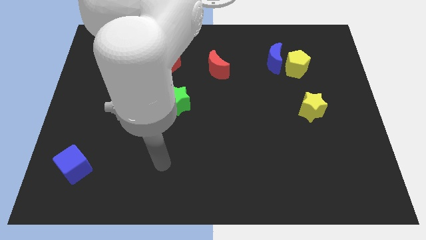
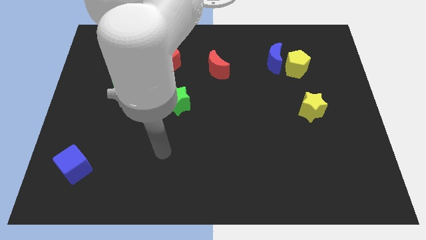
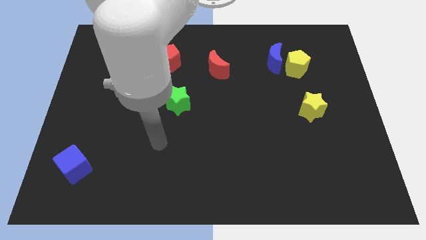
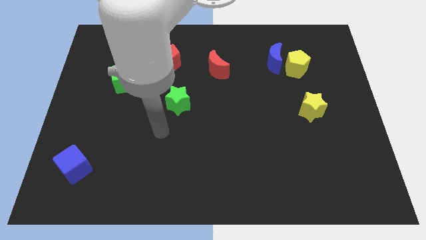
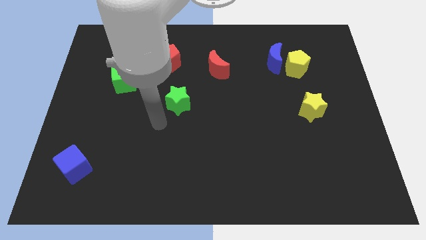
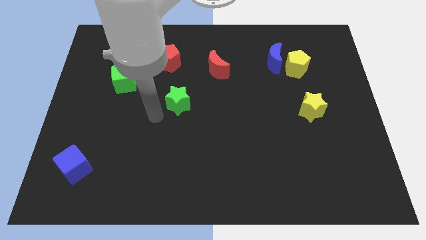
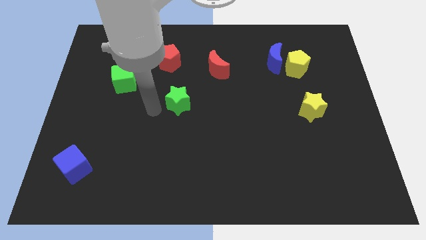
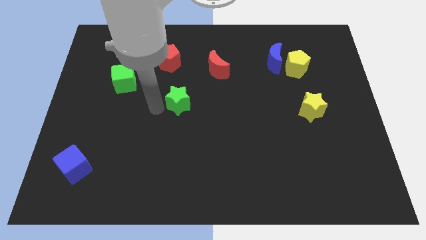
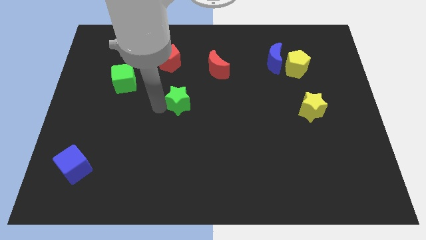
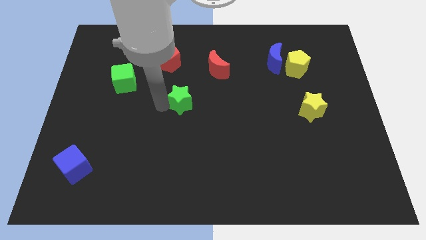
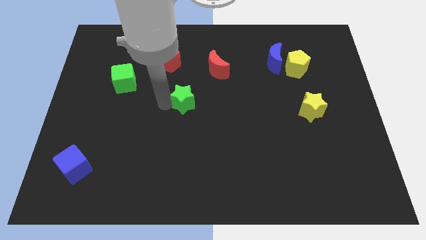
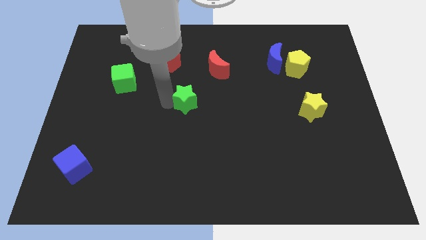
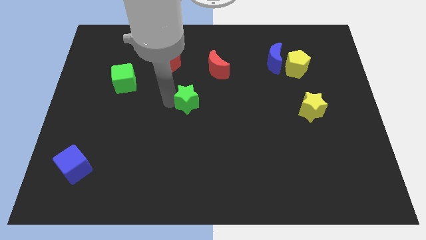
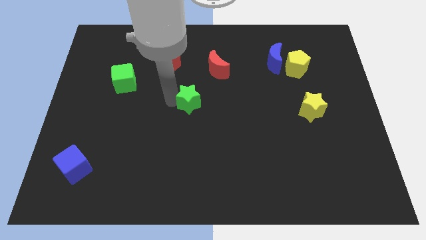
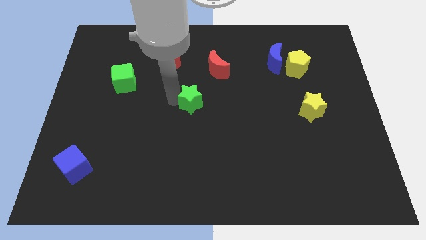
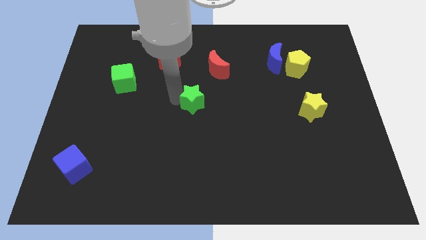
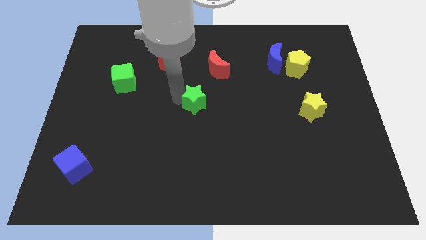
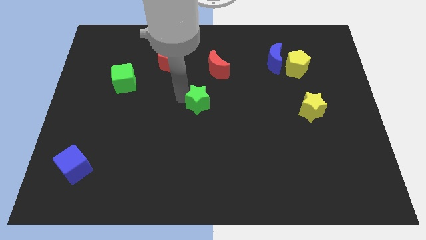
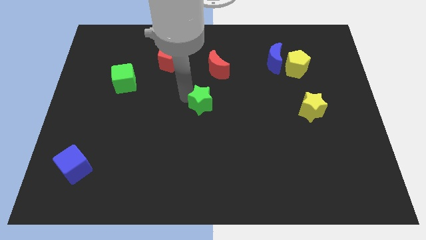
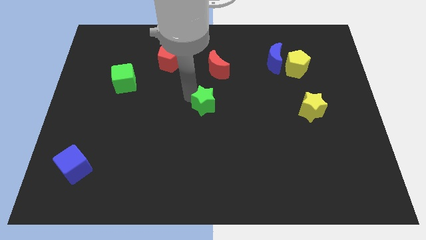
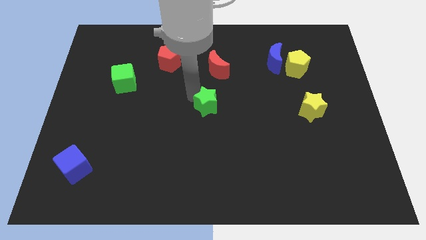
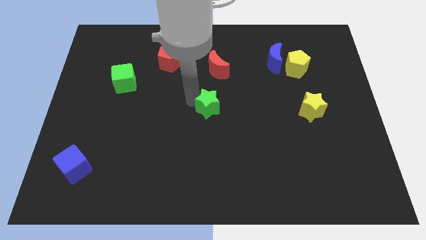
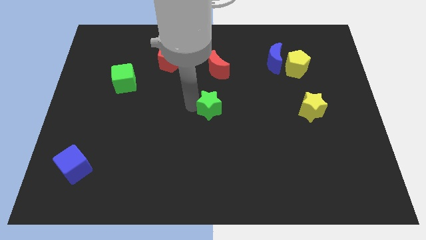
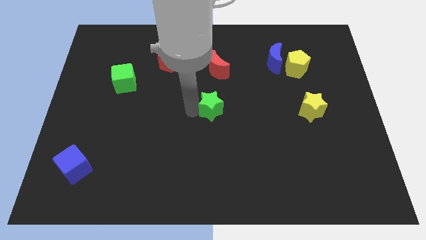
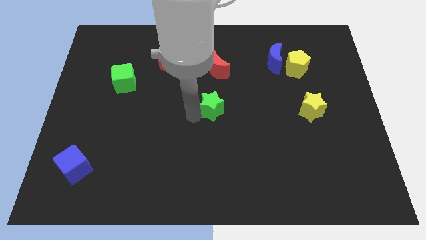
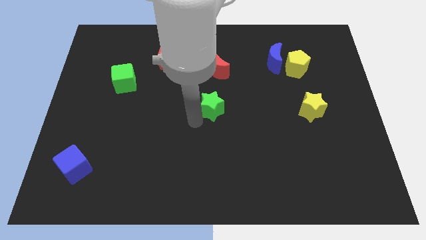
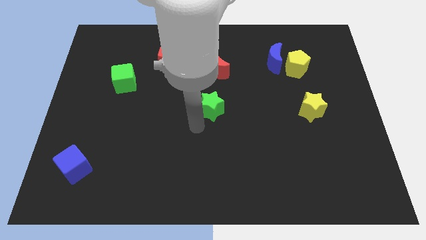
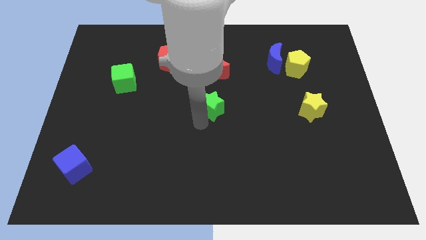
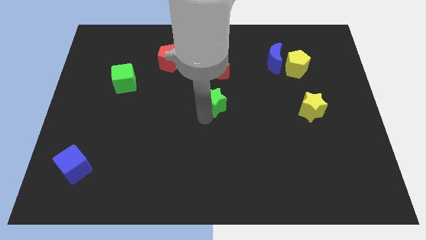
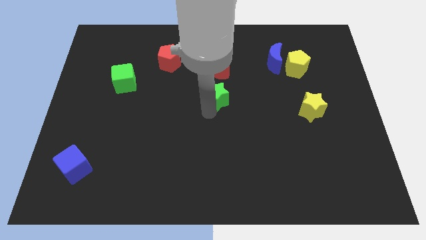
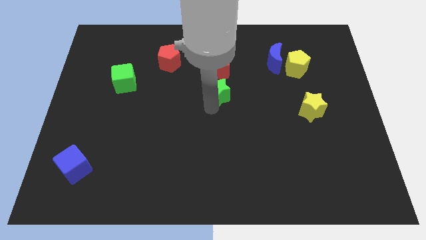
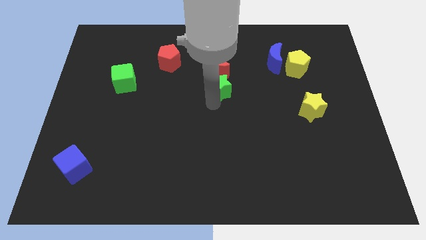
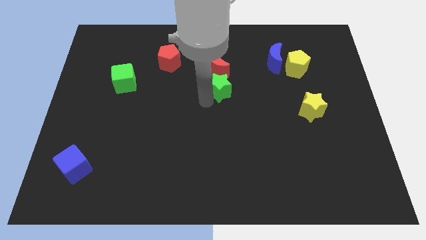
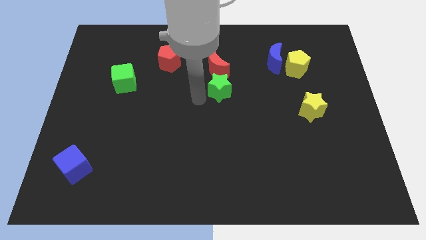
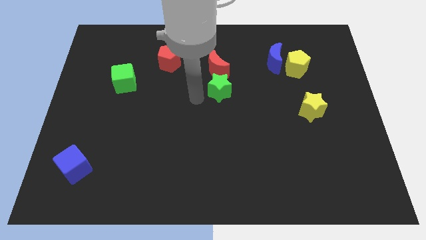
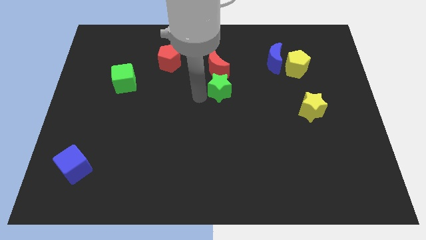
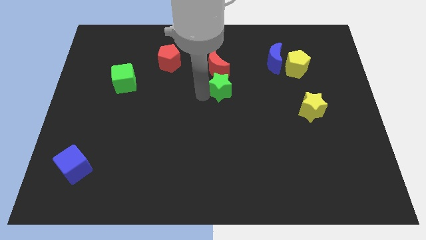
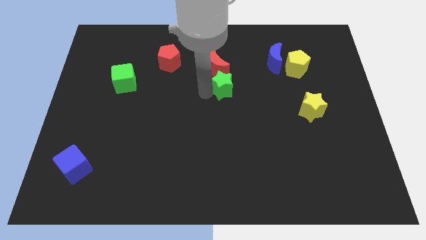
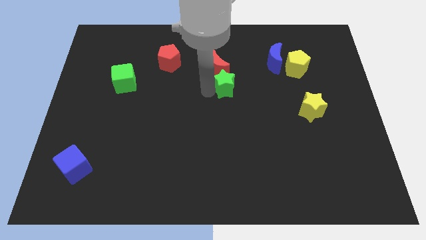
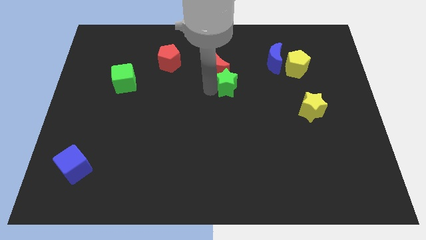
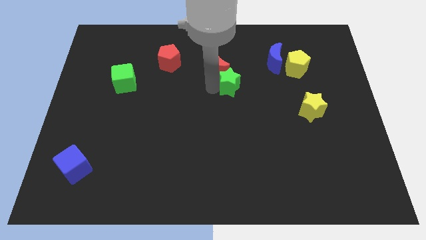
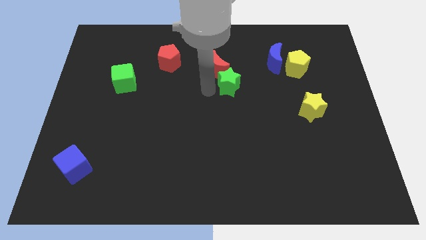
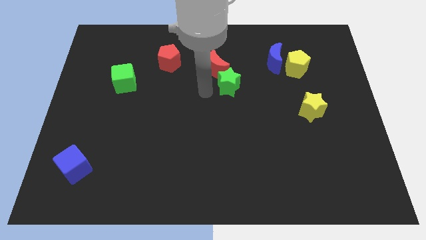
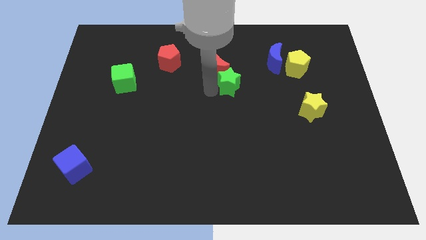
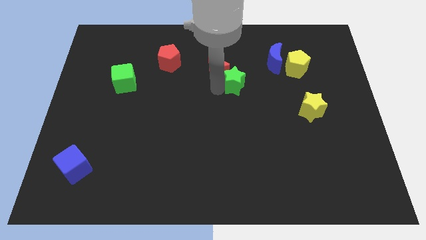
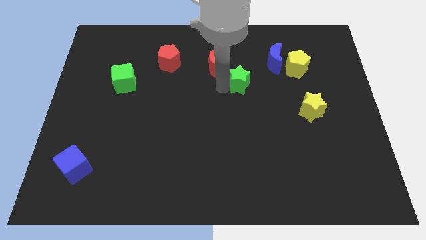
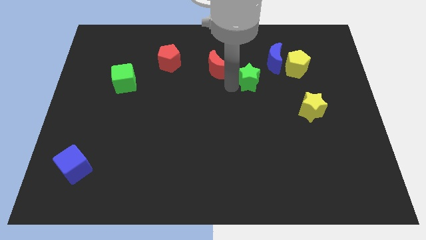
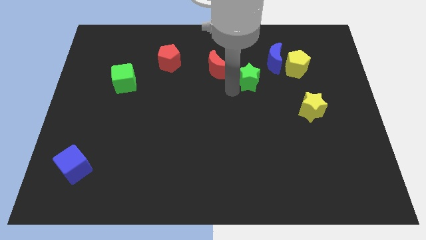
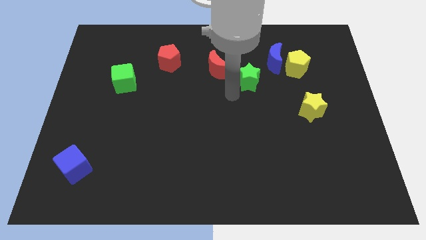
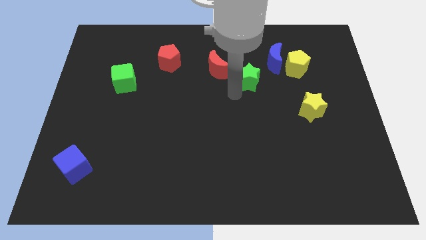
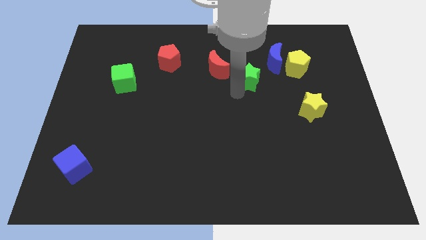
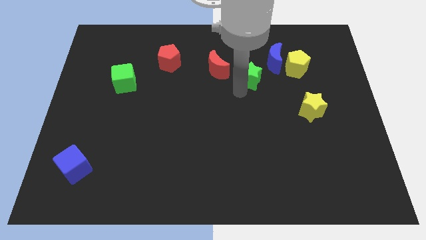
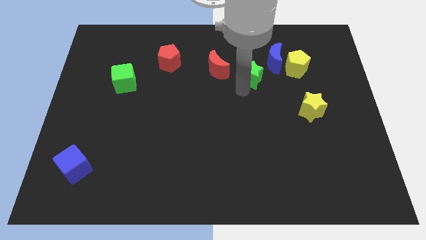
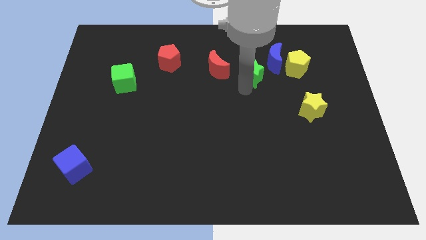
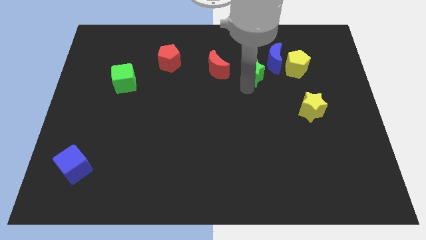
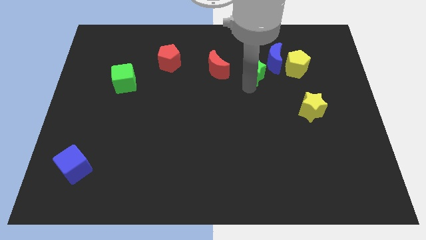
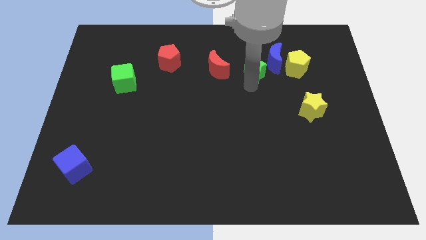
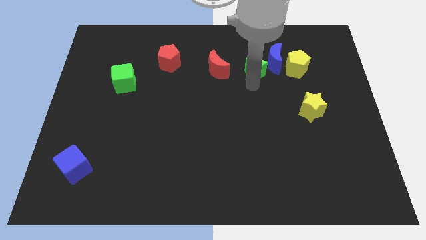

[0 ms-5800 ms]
push the green star close to the blue moon

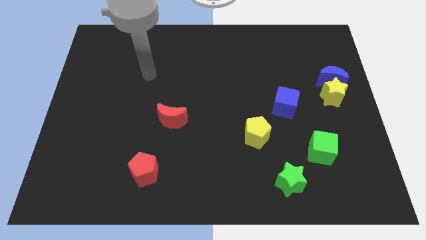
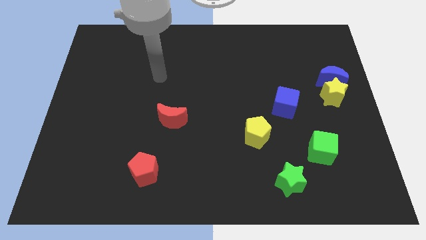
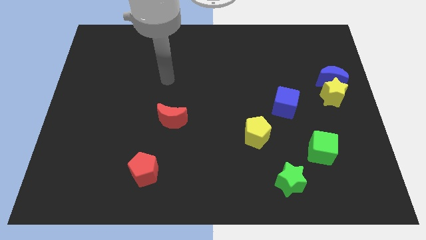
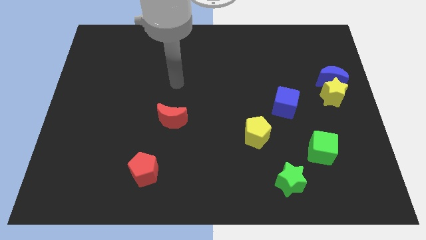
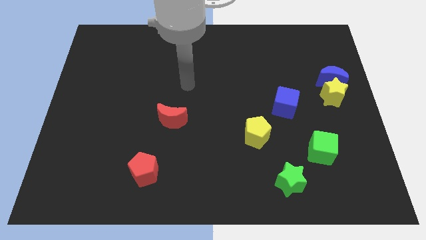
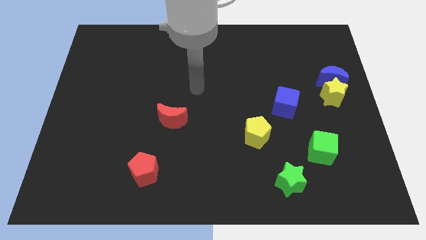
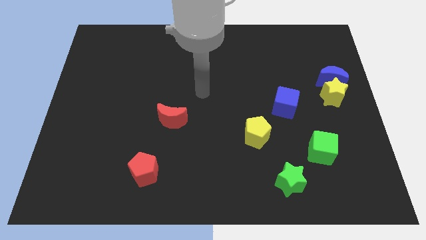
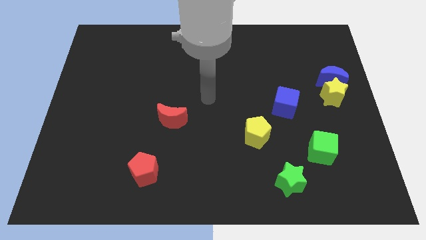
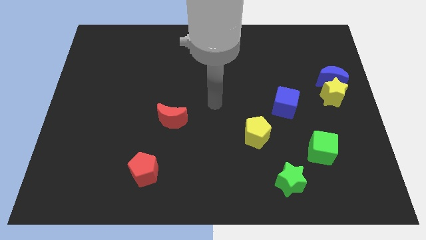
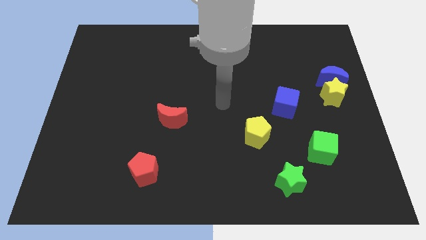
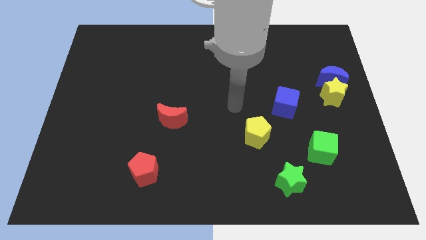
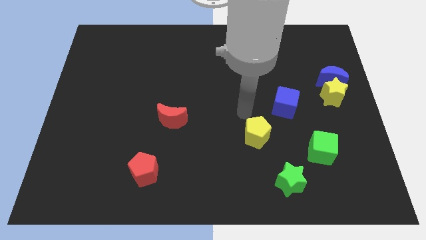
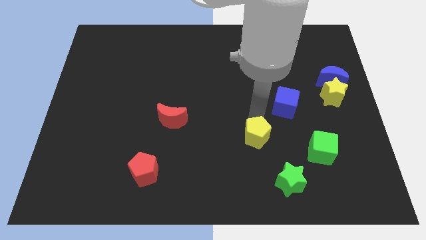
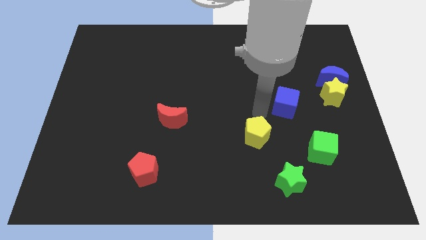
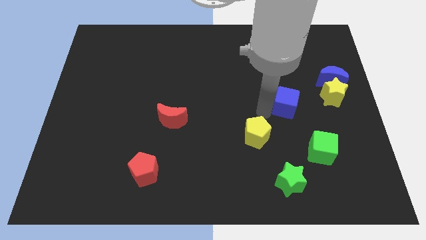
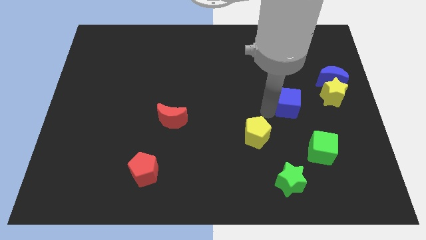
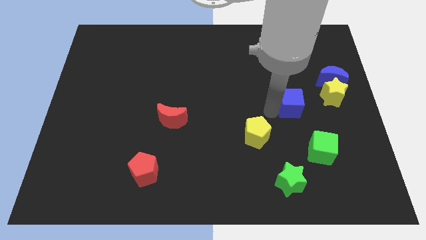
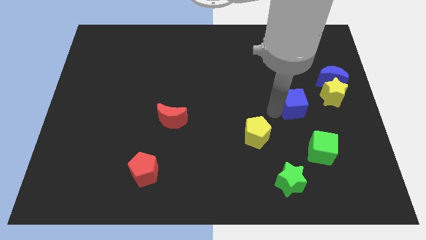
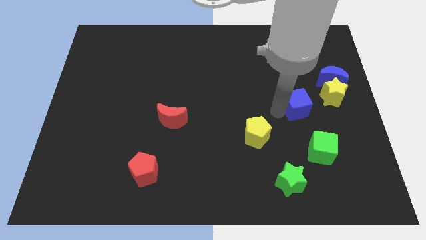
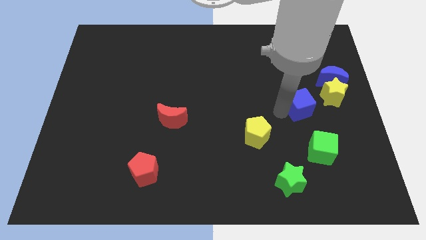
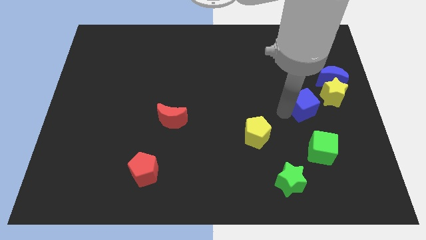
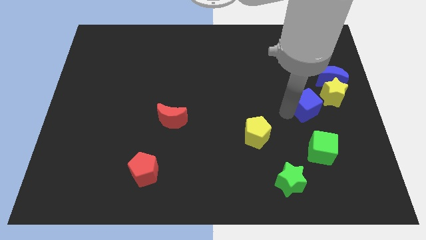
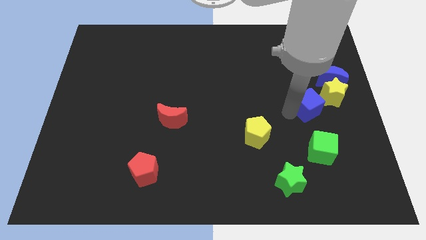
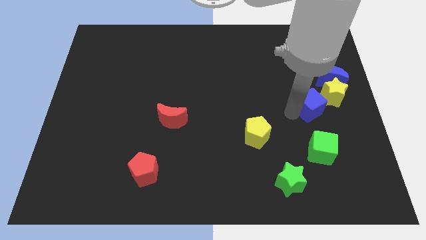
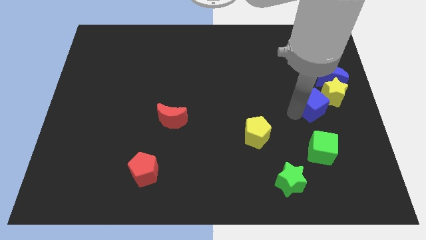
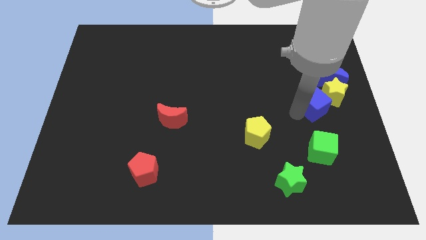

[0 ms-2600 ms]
put the blue cube close to the yellow star
